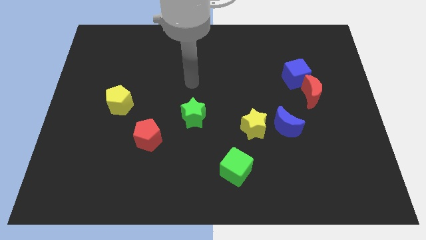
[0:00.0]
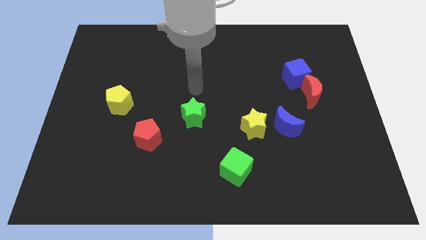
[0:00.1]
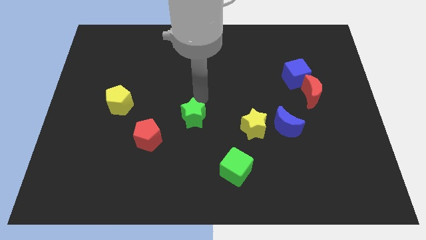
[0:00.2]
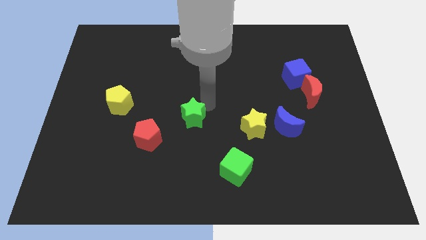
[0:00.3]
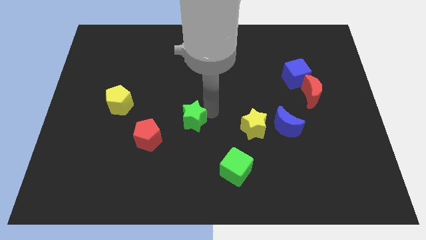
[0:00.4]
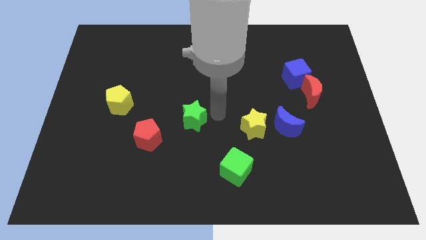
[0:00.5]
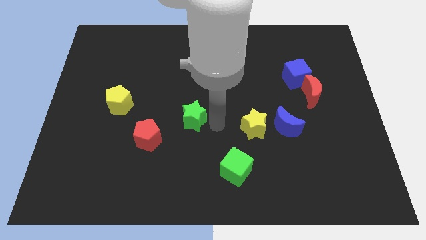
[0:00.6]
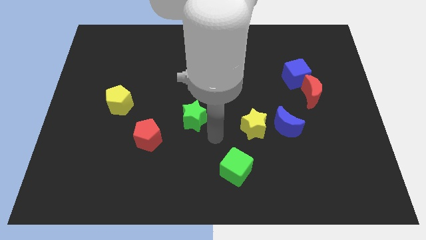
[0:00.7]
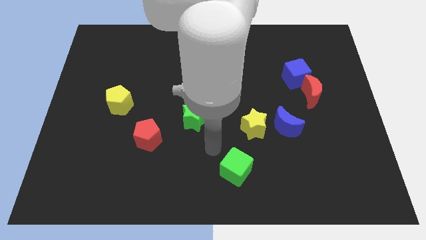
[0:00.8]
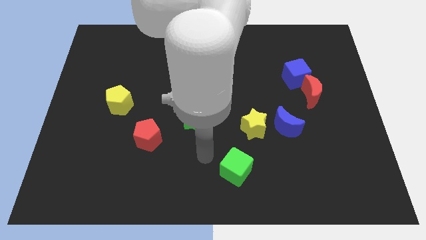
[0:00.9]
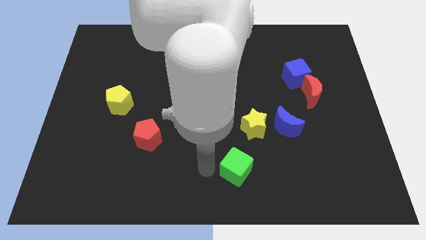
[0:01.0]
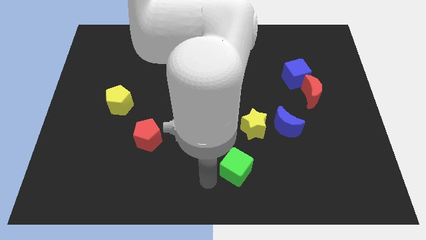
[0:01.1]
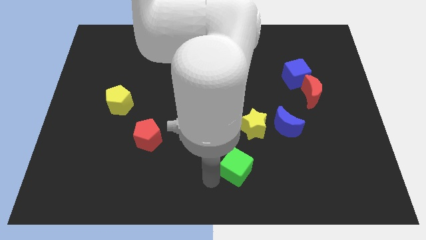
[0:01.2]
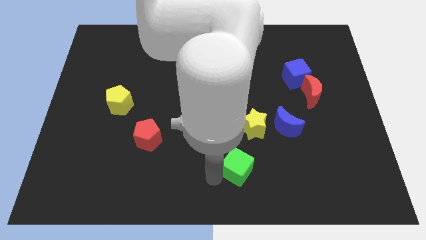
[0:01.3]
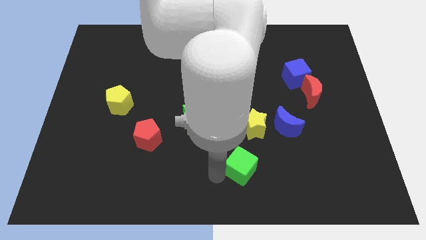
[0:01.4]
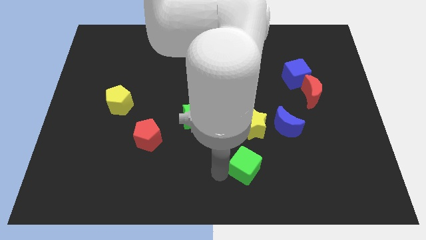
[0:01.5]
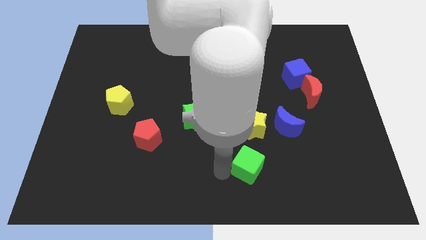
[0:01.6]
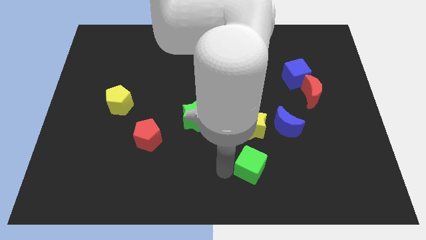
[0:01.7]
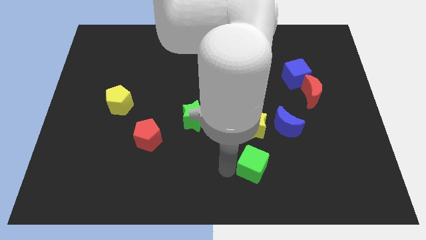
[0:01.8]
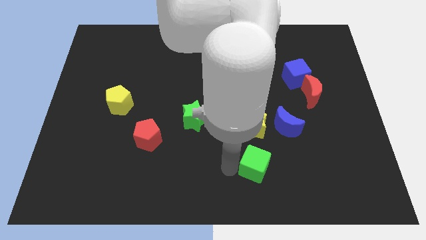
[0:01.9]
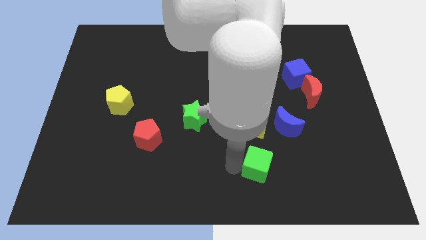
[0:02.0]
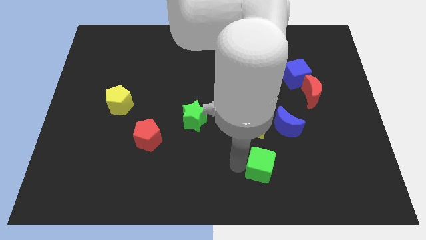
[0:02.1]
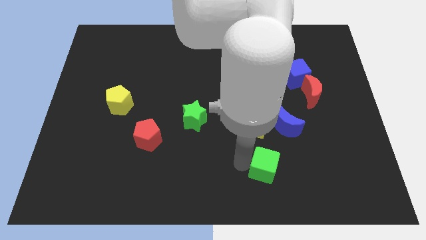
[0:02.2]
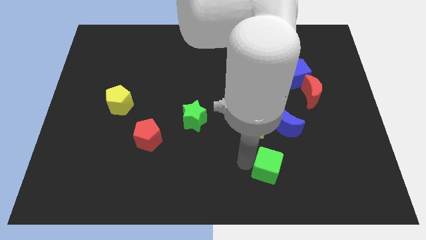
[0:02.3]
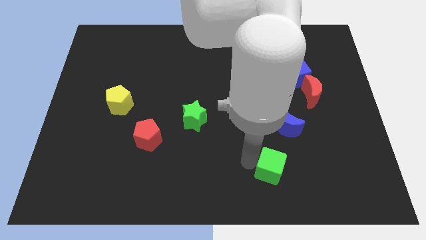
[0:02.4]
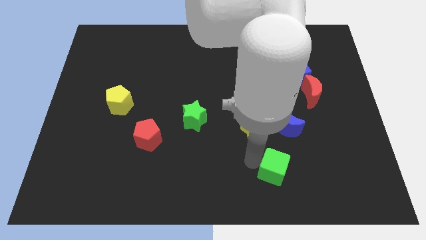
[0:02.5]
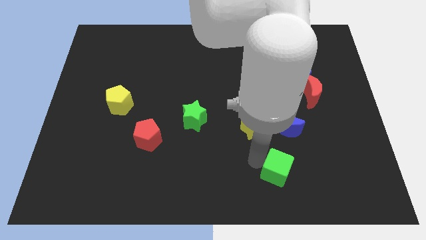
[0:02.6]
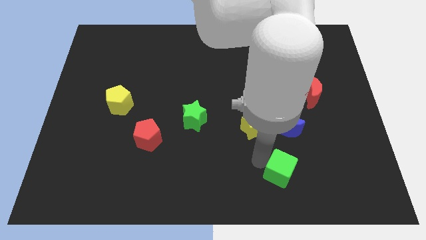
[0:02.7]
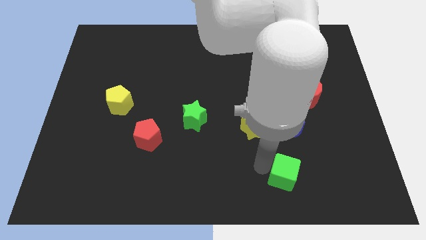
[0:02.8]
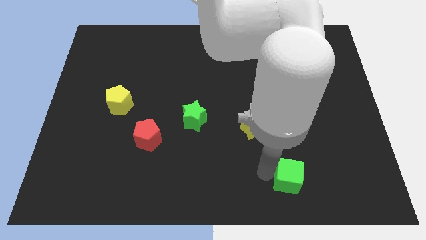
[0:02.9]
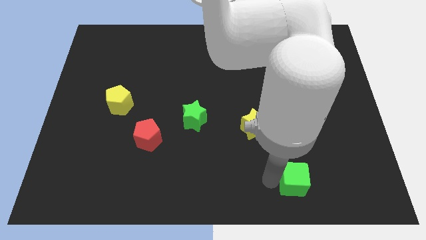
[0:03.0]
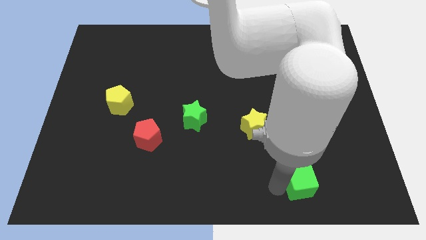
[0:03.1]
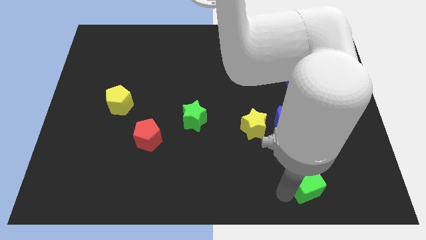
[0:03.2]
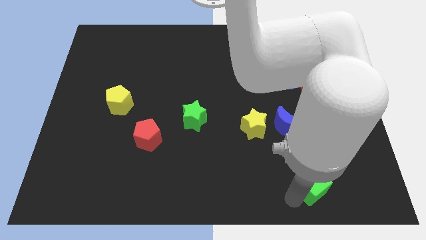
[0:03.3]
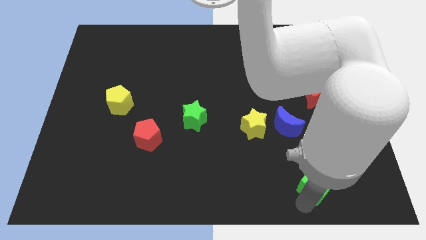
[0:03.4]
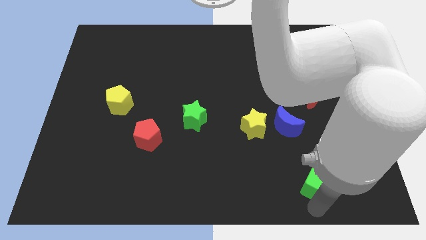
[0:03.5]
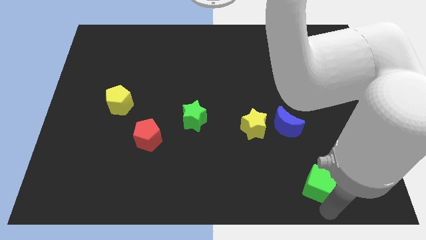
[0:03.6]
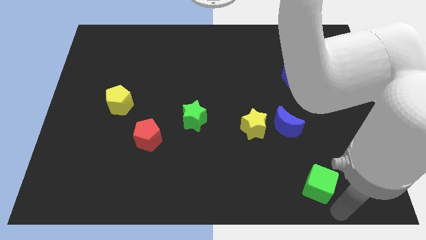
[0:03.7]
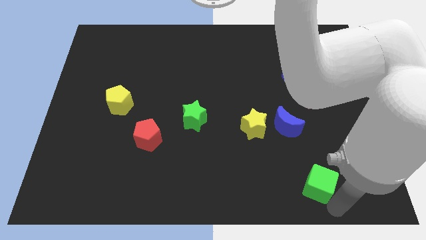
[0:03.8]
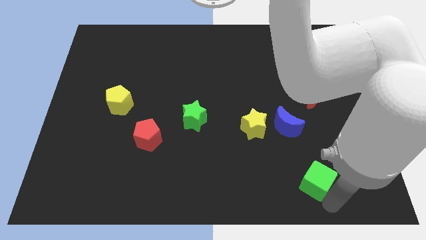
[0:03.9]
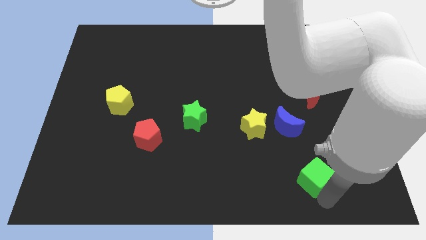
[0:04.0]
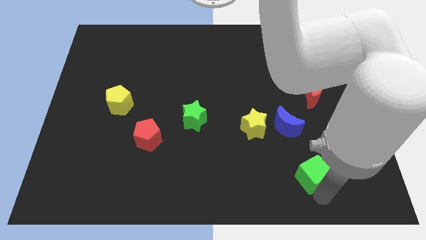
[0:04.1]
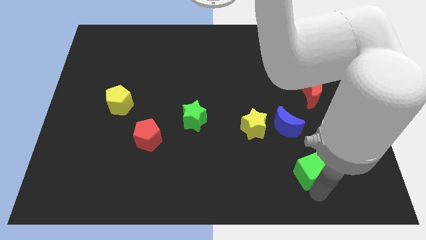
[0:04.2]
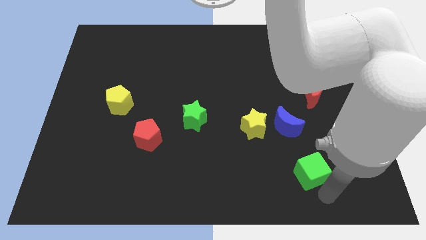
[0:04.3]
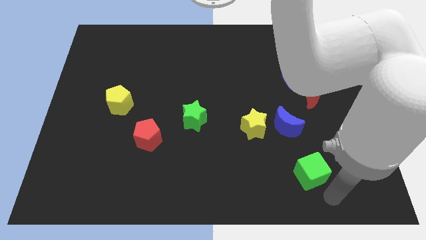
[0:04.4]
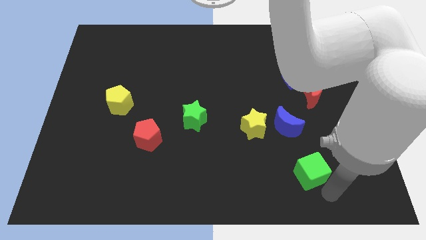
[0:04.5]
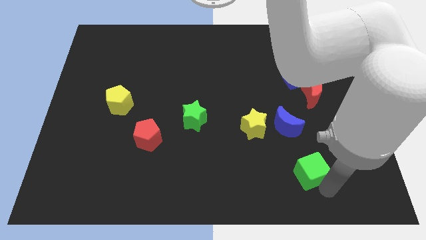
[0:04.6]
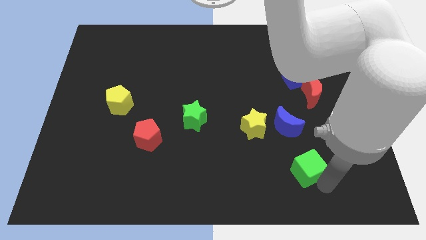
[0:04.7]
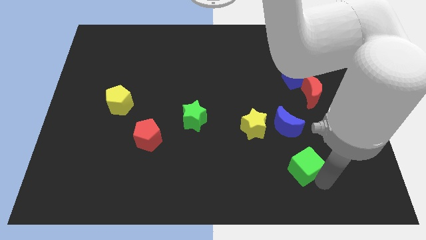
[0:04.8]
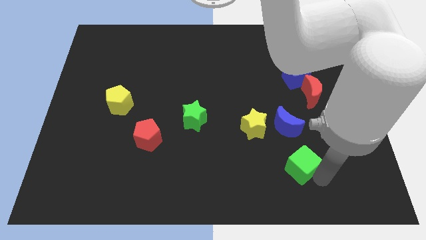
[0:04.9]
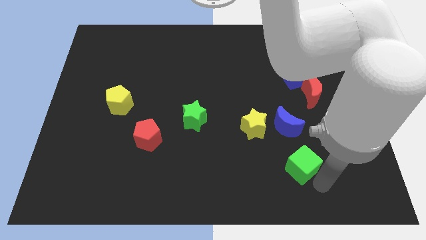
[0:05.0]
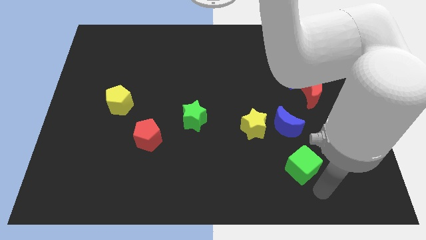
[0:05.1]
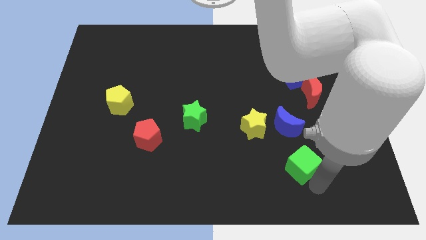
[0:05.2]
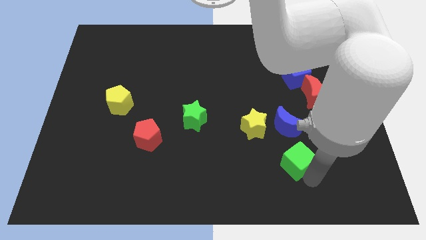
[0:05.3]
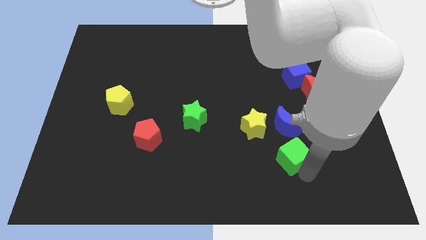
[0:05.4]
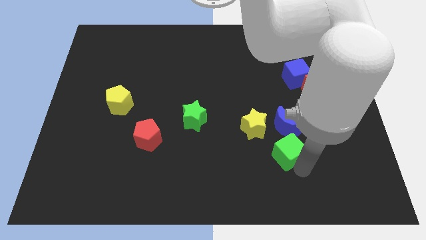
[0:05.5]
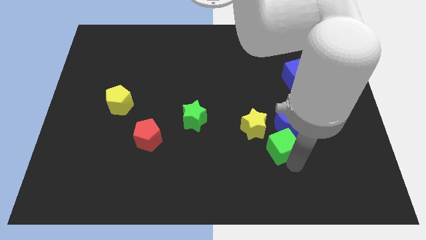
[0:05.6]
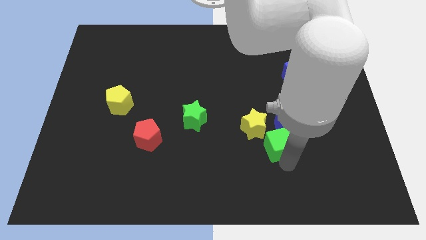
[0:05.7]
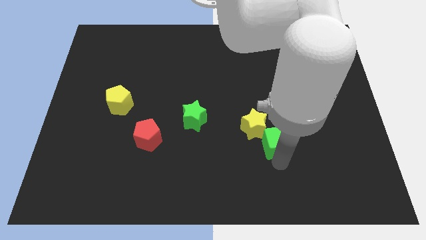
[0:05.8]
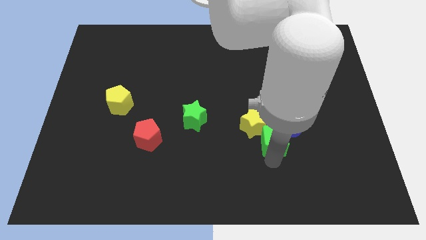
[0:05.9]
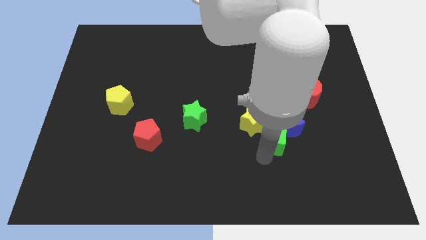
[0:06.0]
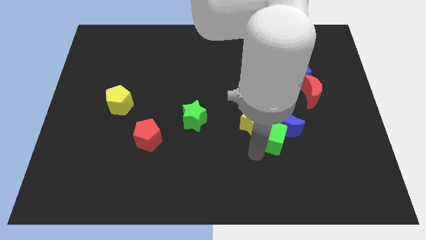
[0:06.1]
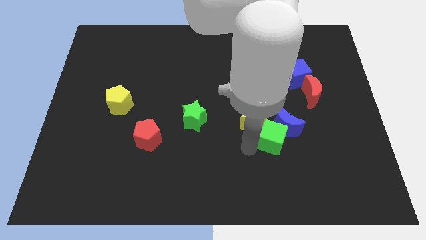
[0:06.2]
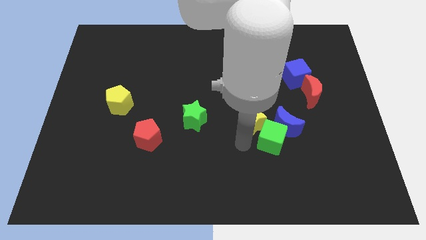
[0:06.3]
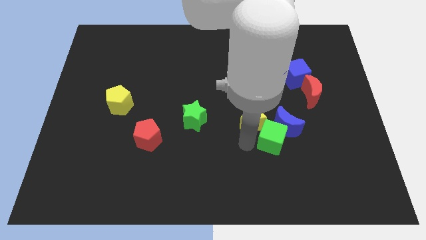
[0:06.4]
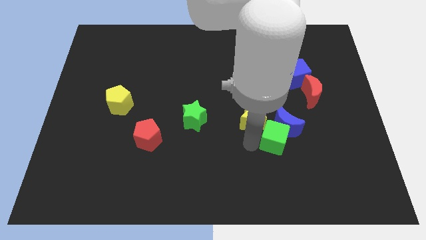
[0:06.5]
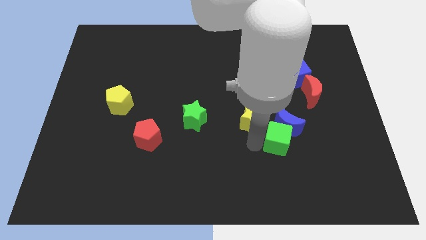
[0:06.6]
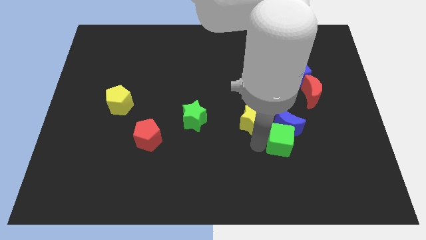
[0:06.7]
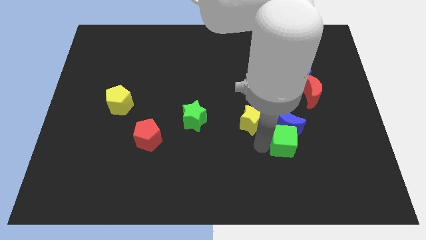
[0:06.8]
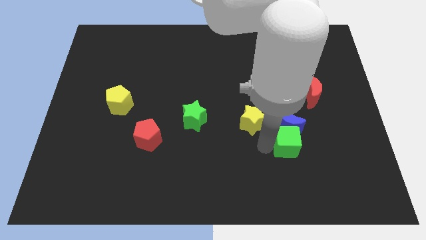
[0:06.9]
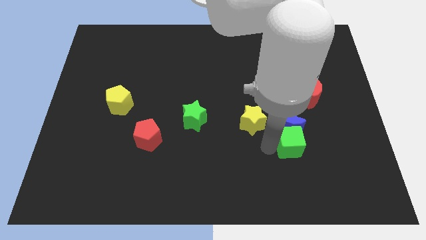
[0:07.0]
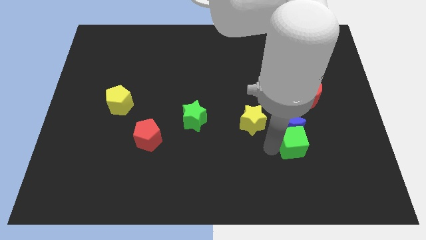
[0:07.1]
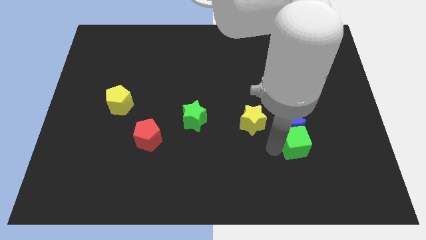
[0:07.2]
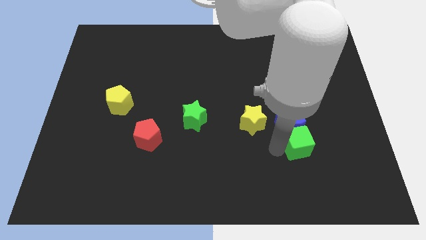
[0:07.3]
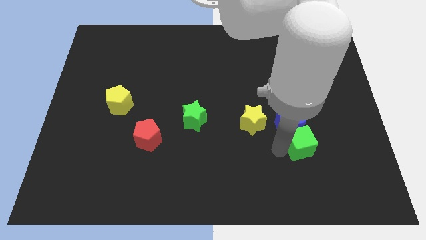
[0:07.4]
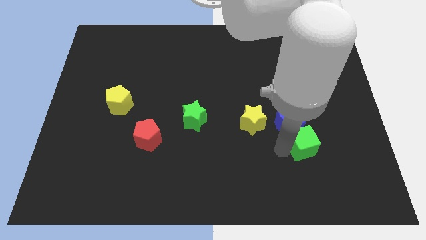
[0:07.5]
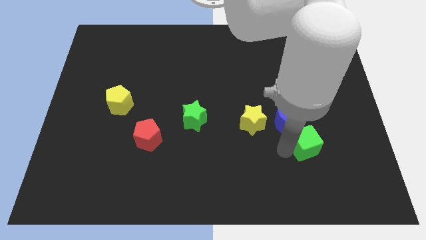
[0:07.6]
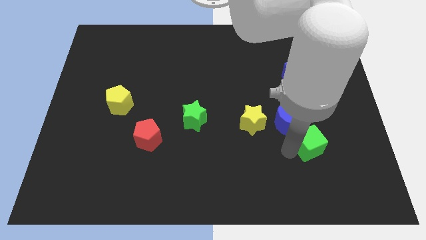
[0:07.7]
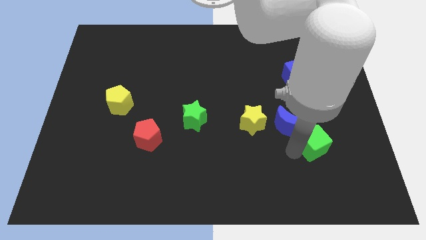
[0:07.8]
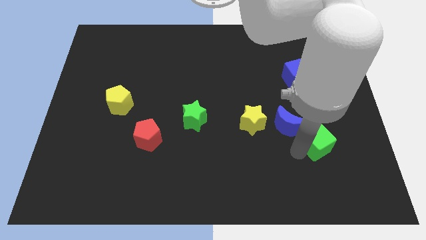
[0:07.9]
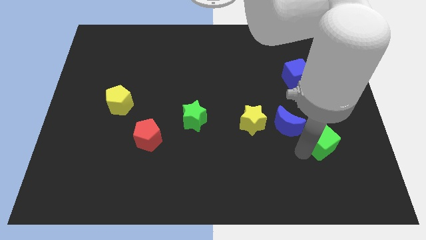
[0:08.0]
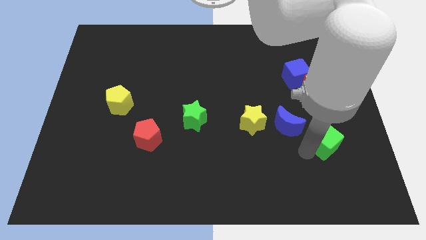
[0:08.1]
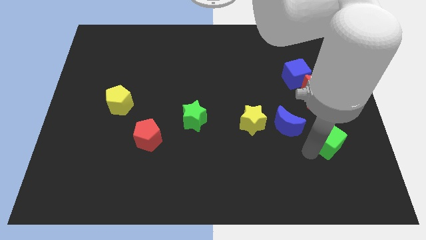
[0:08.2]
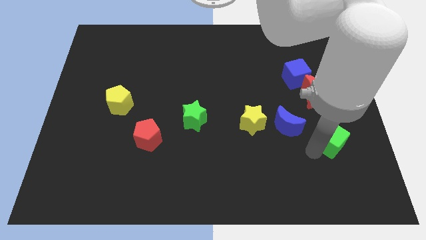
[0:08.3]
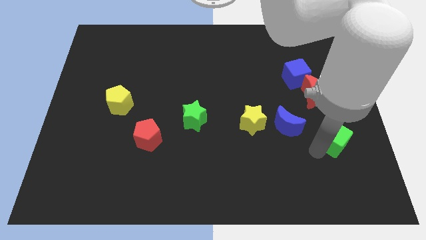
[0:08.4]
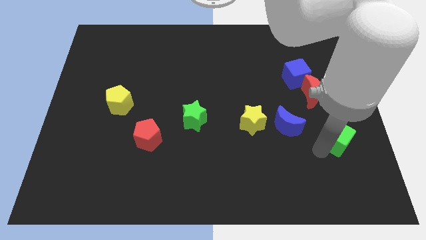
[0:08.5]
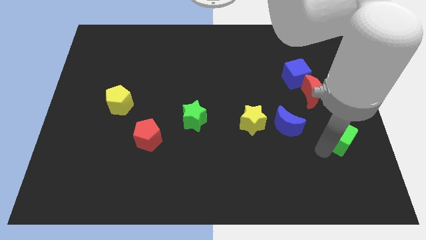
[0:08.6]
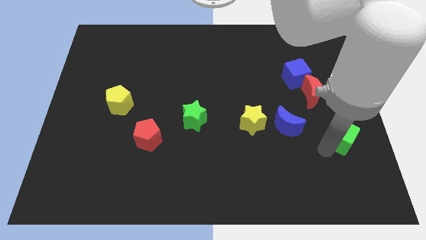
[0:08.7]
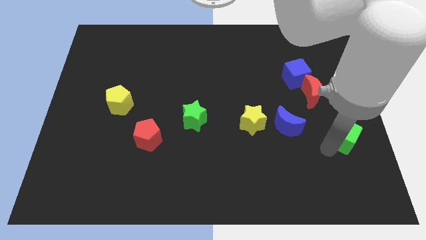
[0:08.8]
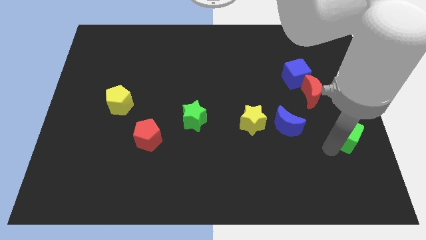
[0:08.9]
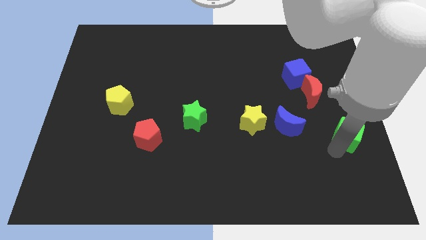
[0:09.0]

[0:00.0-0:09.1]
push the green cube to the center right
